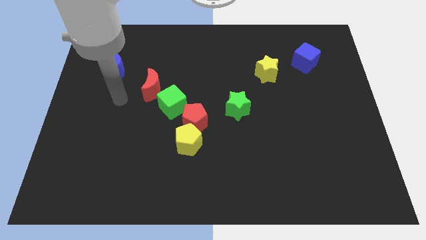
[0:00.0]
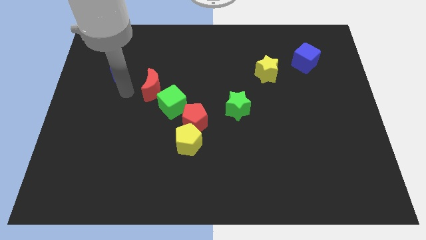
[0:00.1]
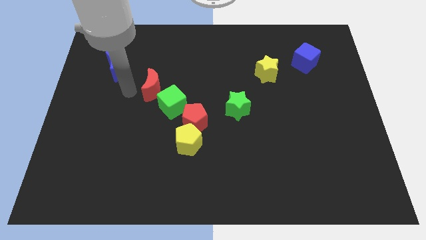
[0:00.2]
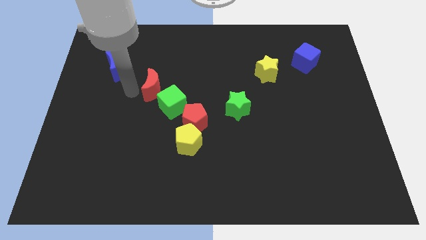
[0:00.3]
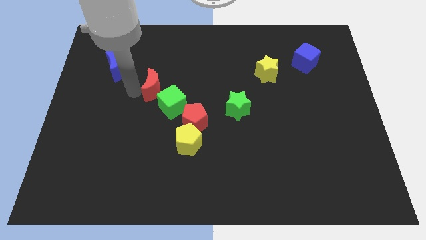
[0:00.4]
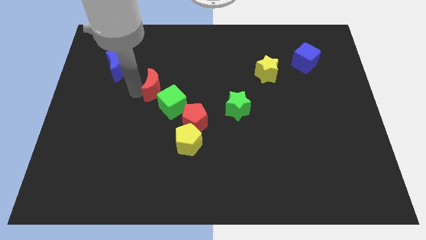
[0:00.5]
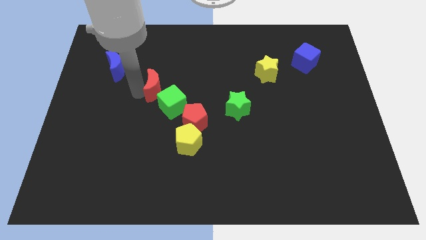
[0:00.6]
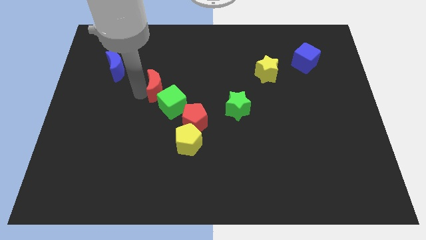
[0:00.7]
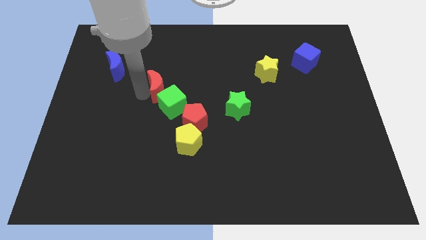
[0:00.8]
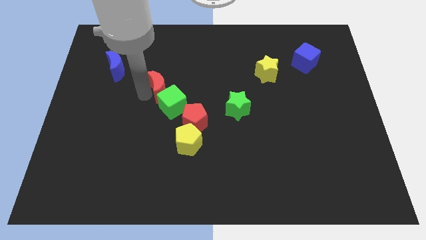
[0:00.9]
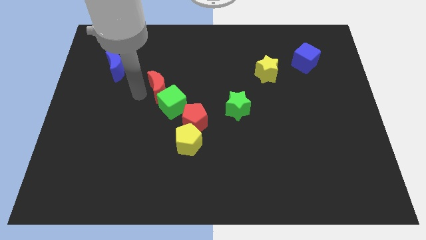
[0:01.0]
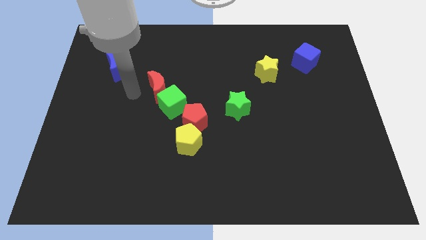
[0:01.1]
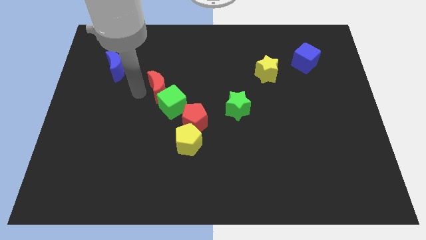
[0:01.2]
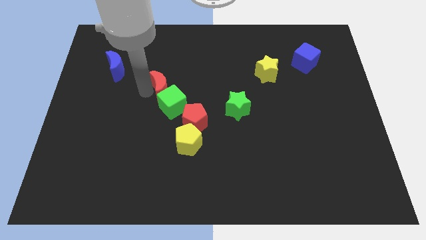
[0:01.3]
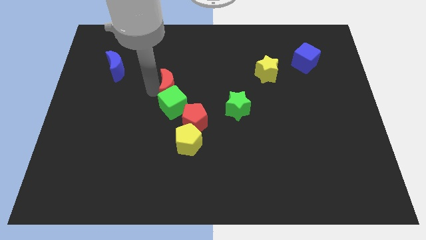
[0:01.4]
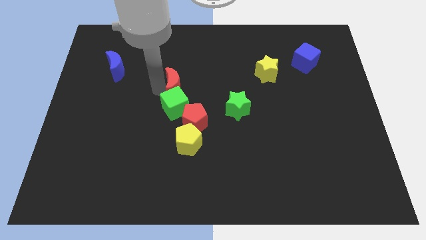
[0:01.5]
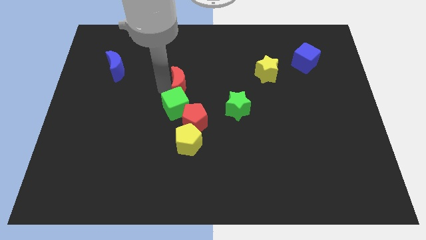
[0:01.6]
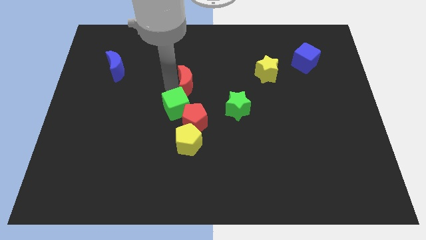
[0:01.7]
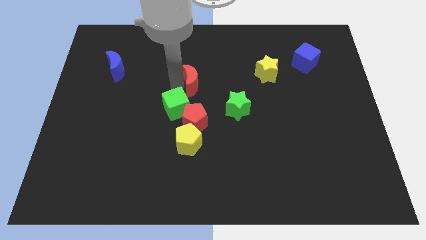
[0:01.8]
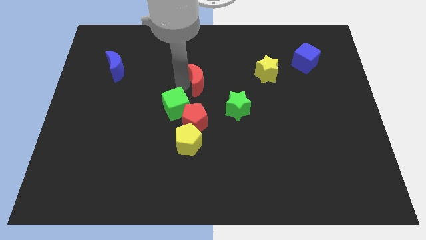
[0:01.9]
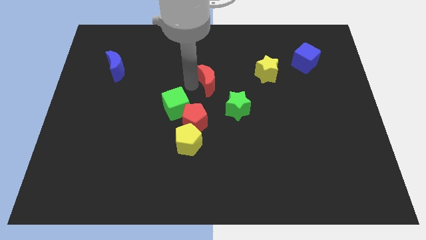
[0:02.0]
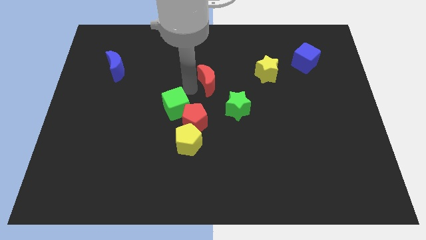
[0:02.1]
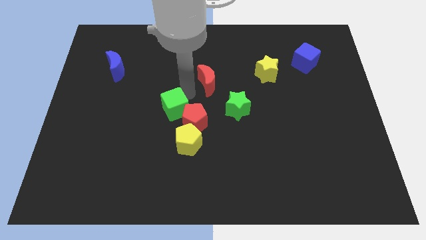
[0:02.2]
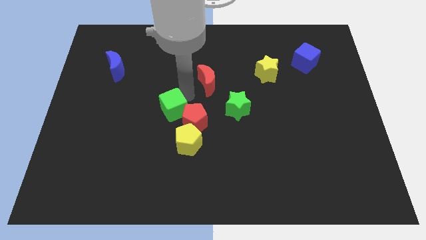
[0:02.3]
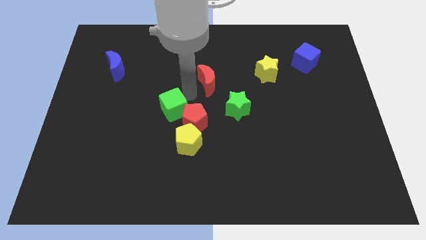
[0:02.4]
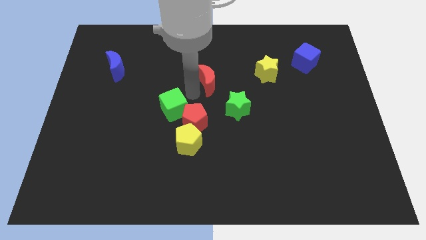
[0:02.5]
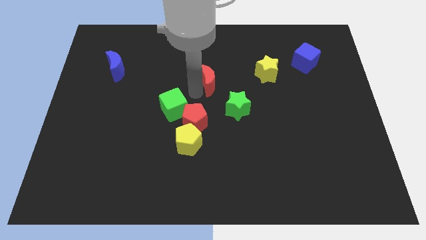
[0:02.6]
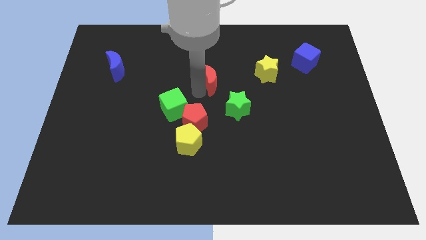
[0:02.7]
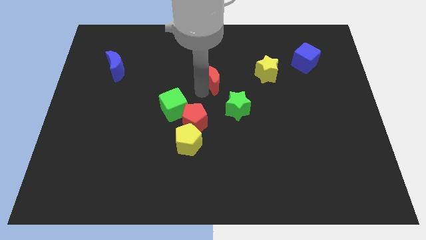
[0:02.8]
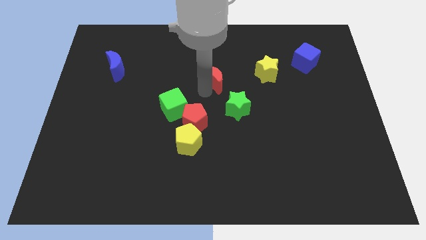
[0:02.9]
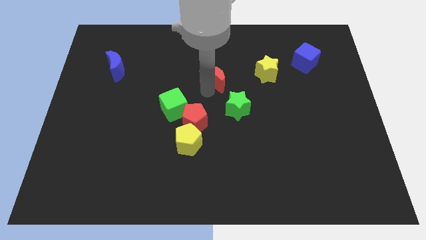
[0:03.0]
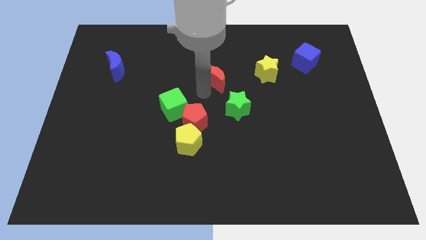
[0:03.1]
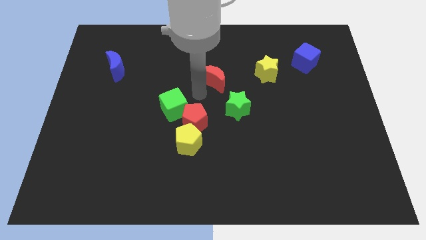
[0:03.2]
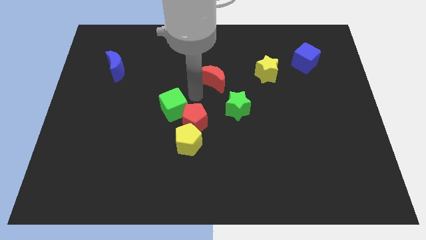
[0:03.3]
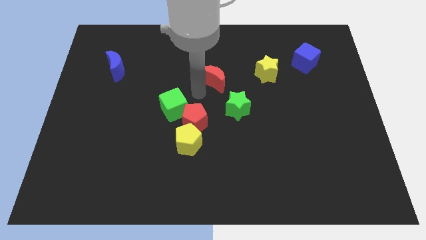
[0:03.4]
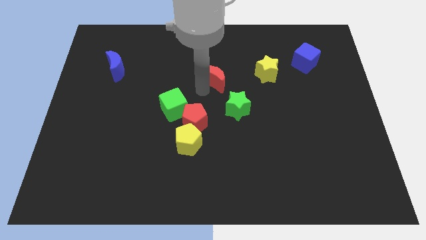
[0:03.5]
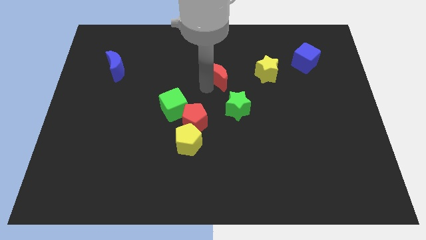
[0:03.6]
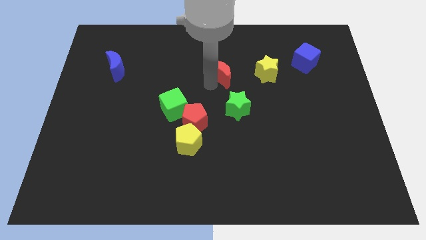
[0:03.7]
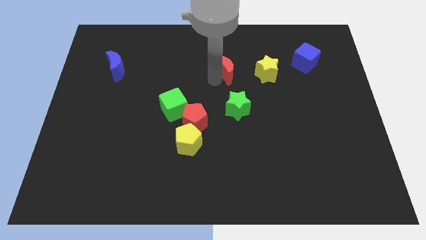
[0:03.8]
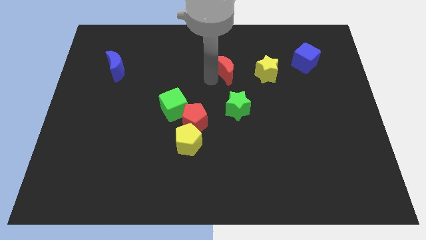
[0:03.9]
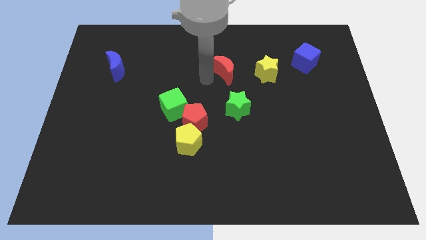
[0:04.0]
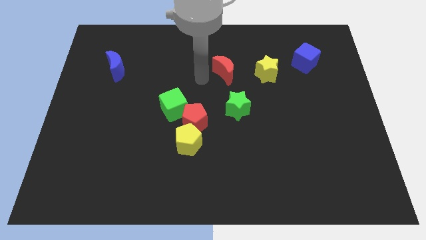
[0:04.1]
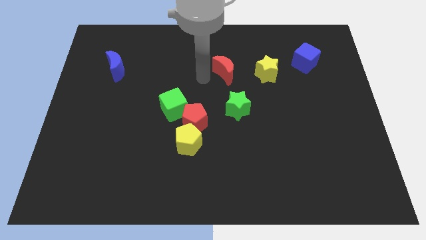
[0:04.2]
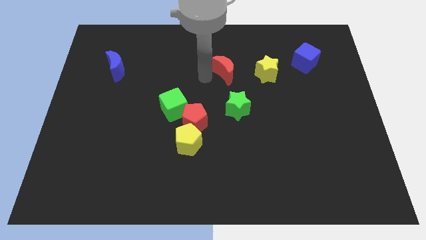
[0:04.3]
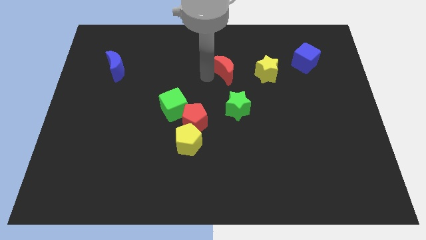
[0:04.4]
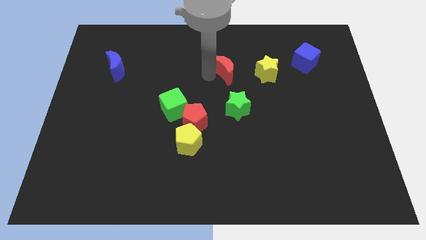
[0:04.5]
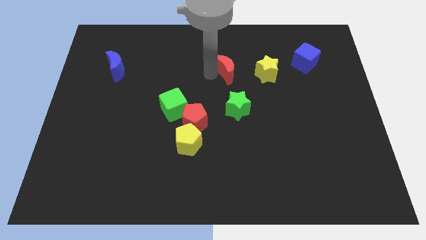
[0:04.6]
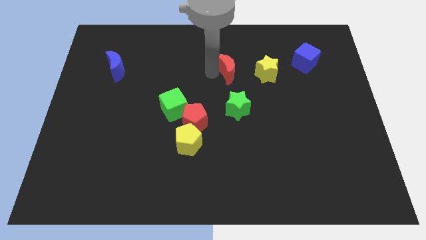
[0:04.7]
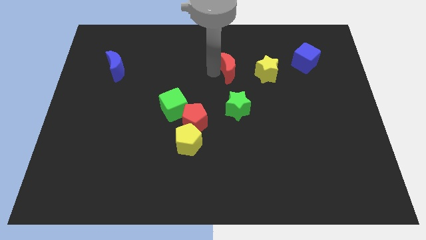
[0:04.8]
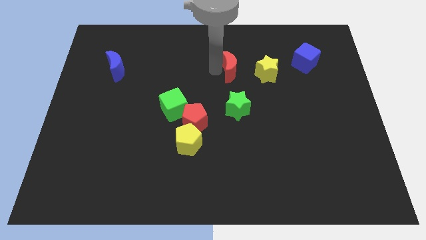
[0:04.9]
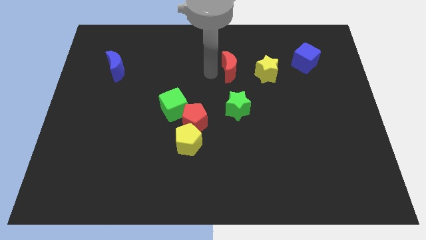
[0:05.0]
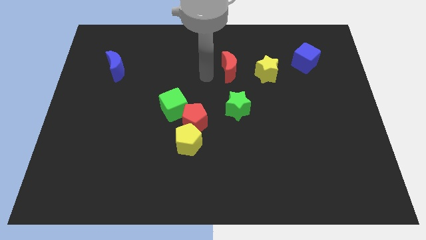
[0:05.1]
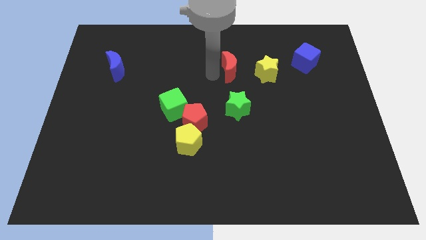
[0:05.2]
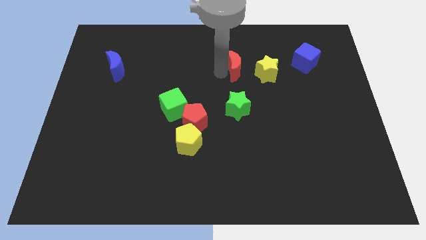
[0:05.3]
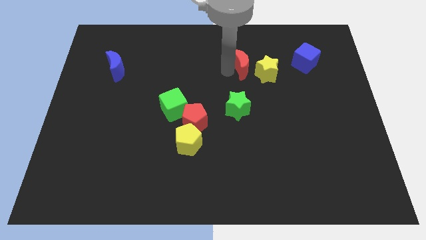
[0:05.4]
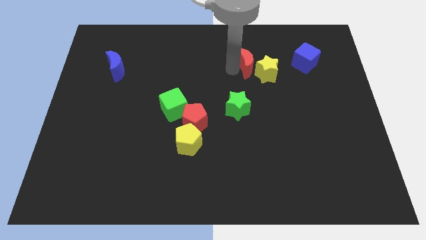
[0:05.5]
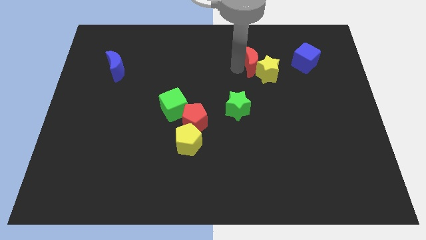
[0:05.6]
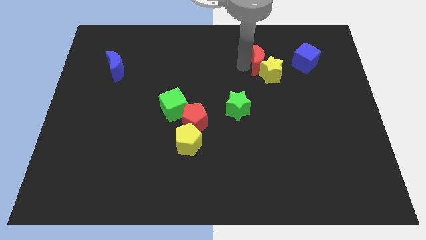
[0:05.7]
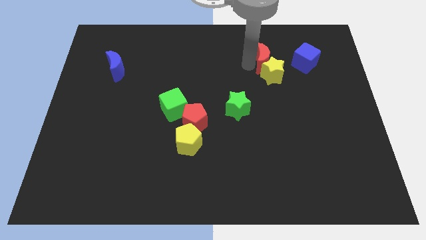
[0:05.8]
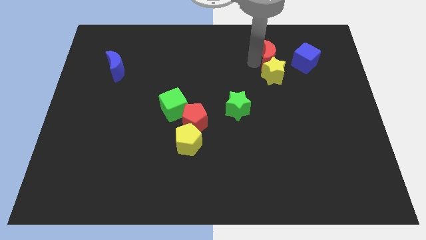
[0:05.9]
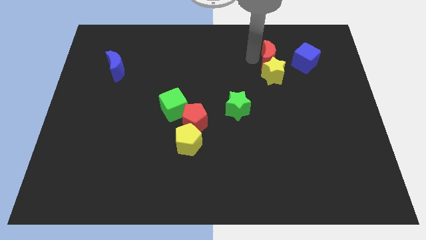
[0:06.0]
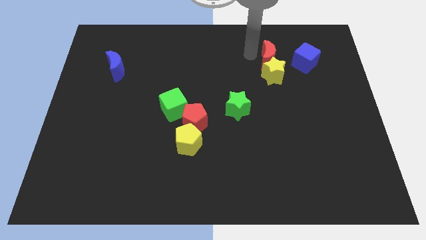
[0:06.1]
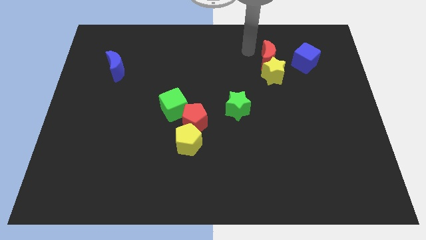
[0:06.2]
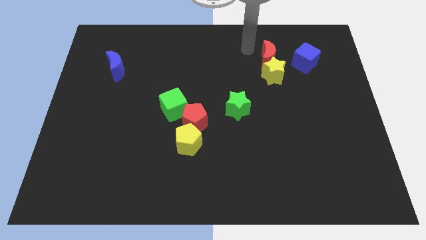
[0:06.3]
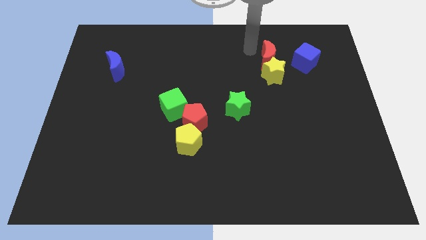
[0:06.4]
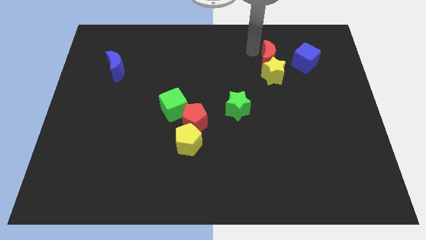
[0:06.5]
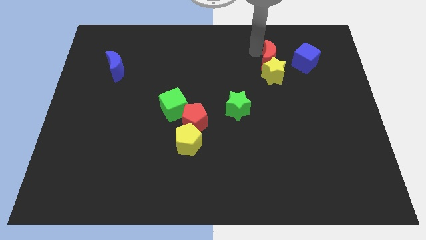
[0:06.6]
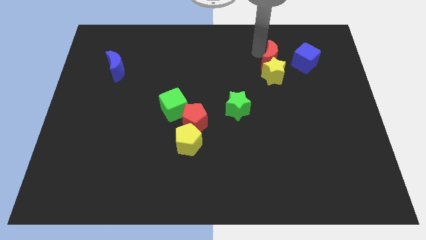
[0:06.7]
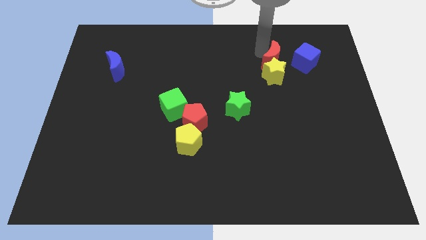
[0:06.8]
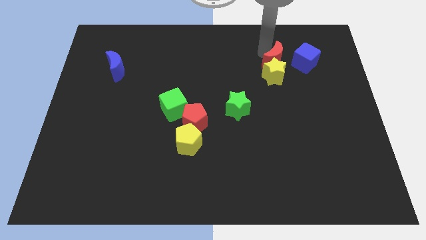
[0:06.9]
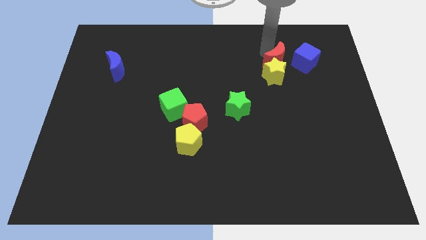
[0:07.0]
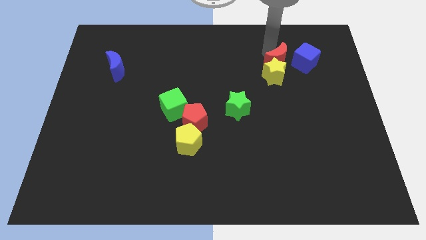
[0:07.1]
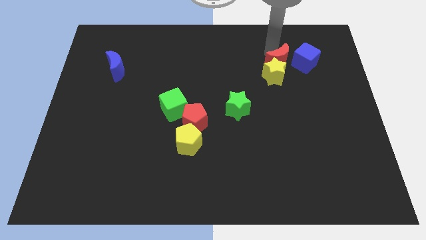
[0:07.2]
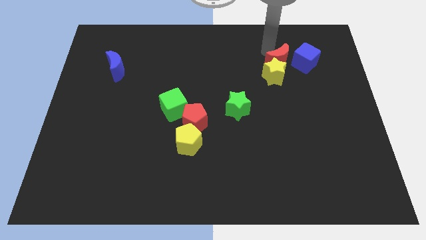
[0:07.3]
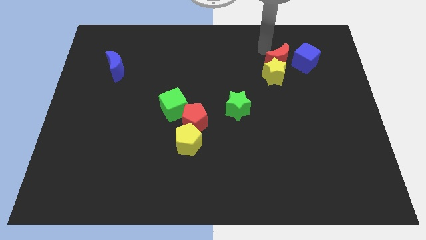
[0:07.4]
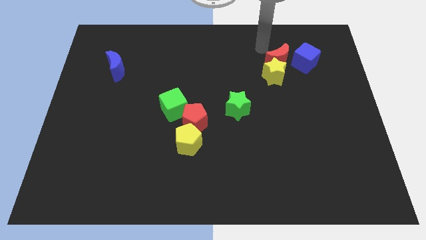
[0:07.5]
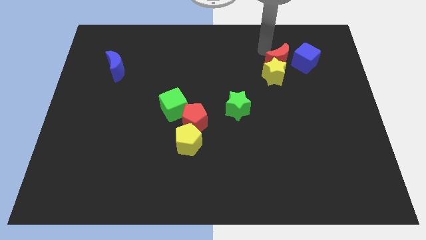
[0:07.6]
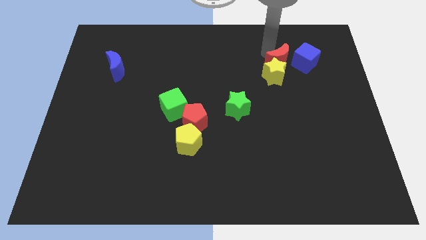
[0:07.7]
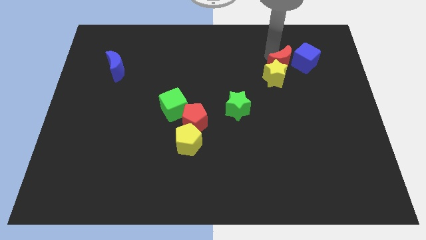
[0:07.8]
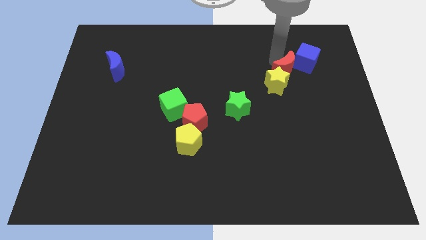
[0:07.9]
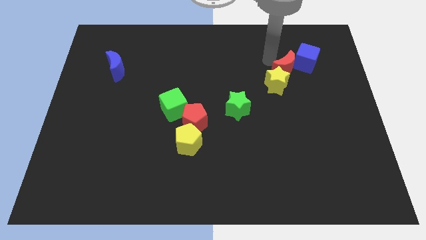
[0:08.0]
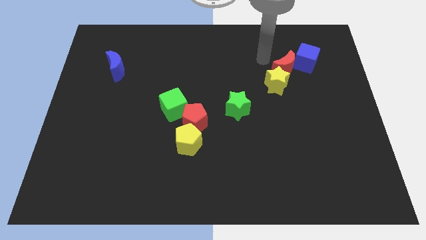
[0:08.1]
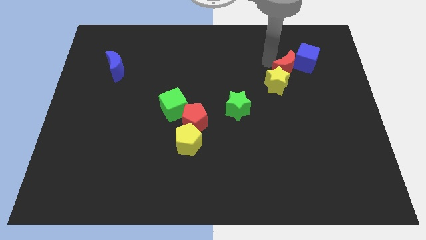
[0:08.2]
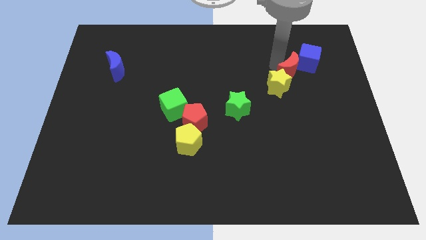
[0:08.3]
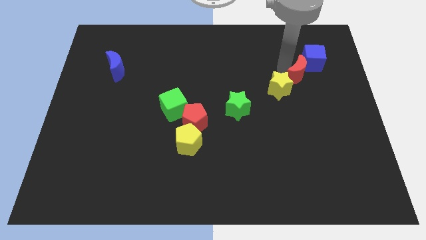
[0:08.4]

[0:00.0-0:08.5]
push the red moon just right of the yellow star
